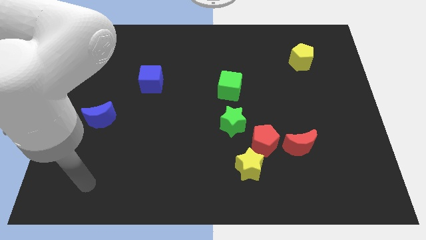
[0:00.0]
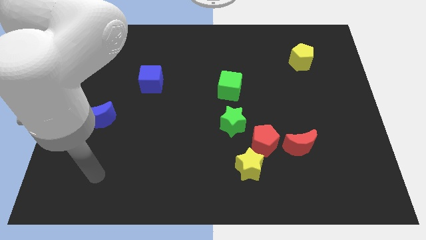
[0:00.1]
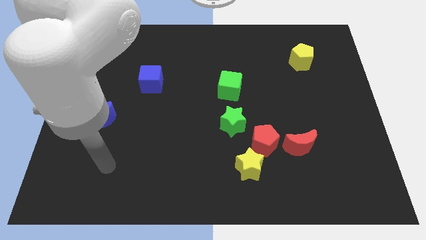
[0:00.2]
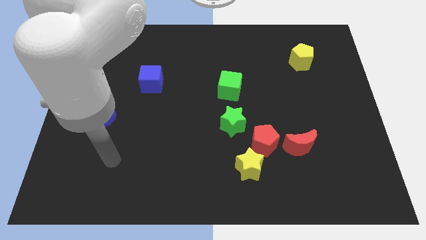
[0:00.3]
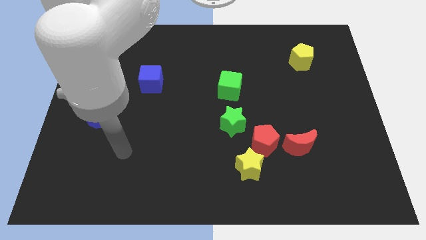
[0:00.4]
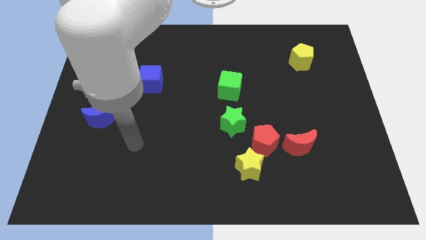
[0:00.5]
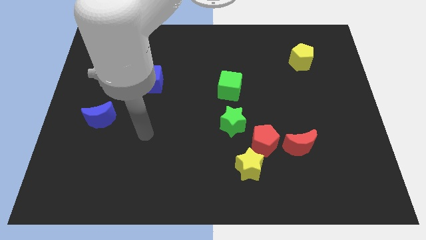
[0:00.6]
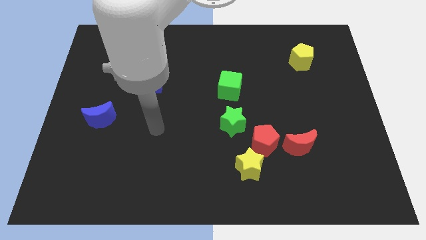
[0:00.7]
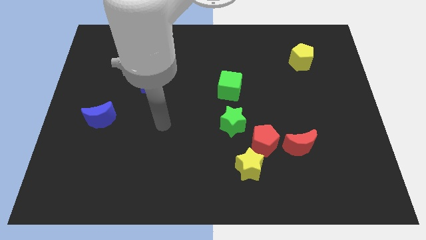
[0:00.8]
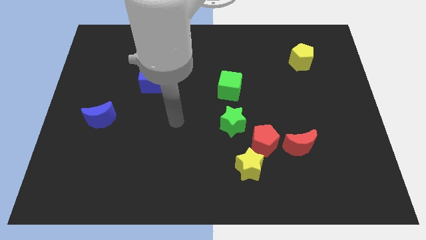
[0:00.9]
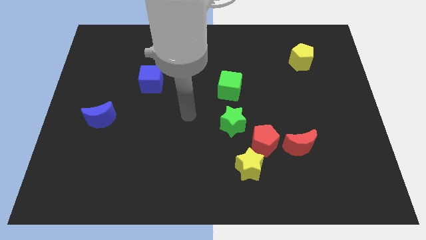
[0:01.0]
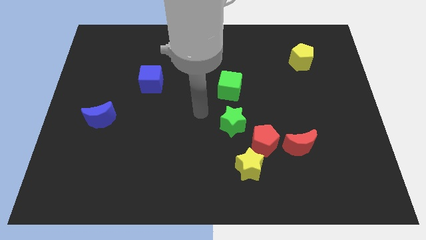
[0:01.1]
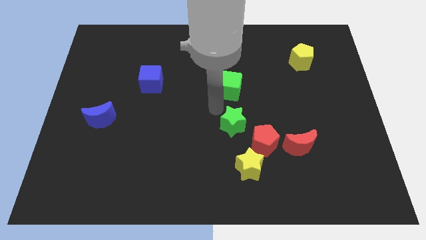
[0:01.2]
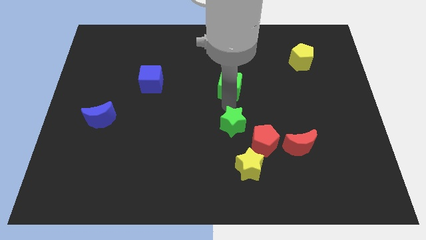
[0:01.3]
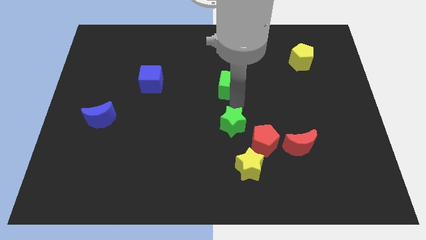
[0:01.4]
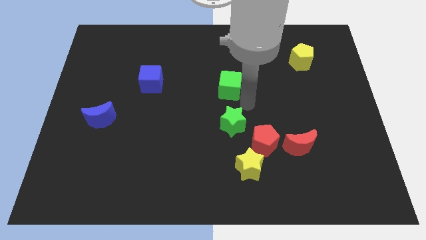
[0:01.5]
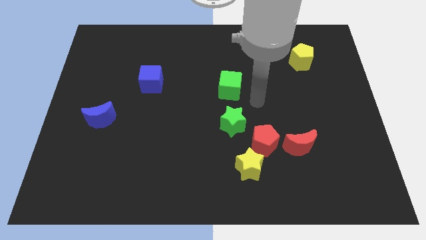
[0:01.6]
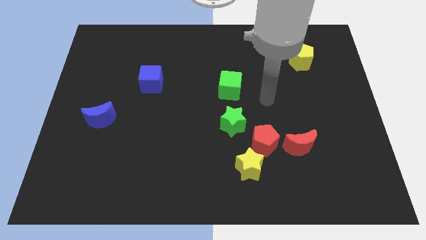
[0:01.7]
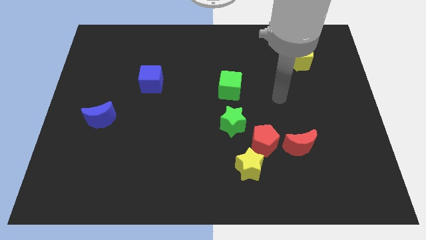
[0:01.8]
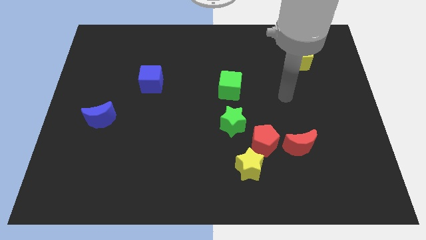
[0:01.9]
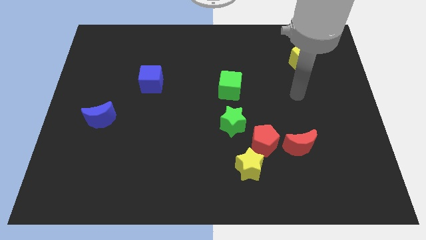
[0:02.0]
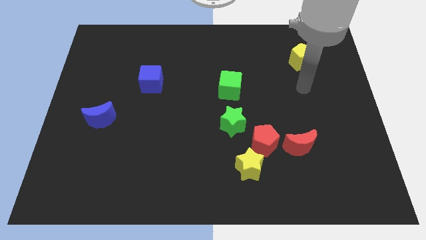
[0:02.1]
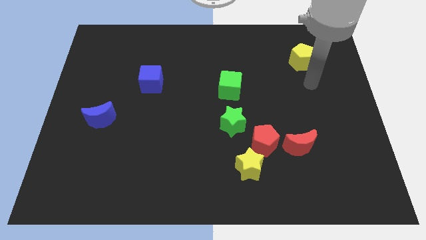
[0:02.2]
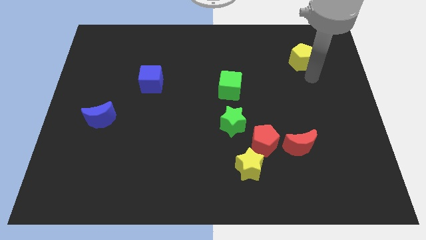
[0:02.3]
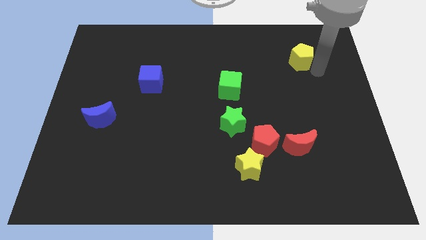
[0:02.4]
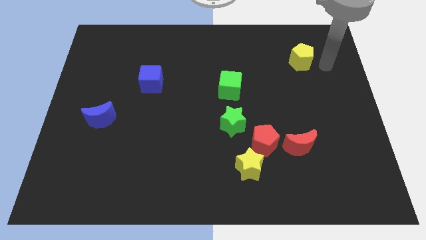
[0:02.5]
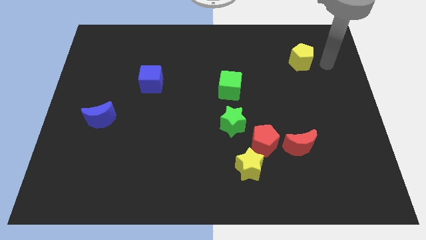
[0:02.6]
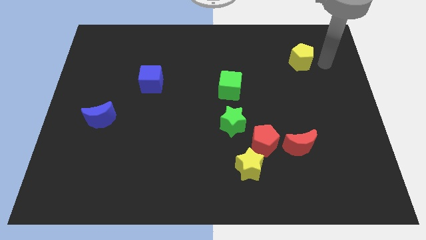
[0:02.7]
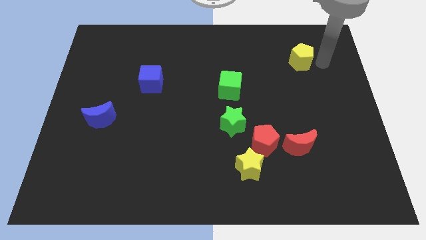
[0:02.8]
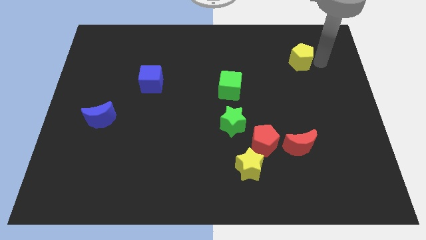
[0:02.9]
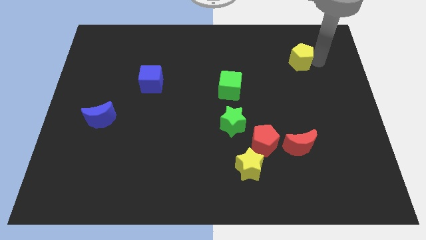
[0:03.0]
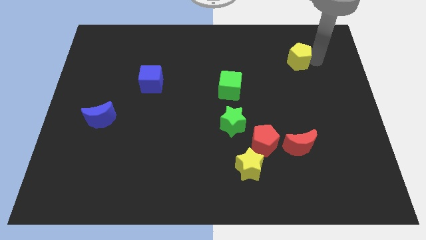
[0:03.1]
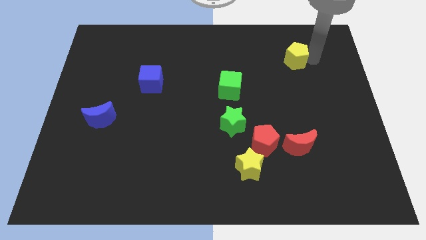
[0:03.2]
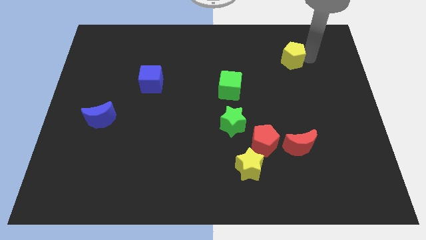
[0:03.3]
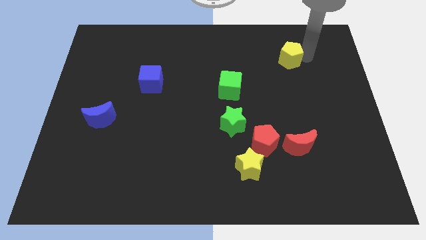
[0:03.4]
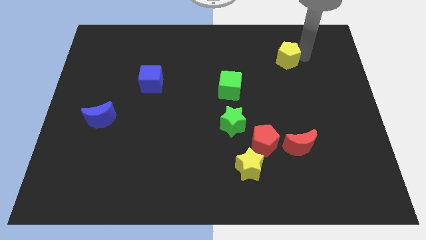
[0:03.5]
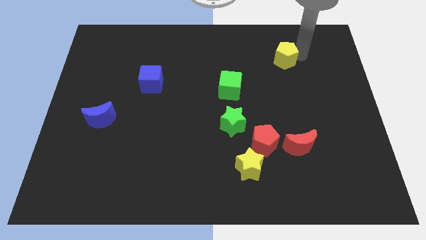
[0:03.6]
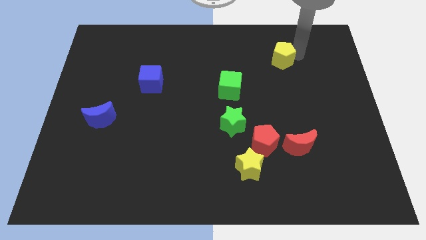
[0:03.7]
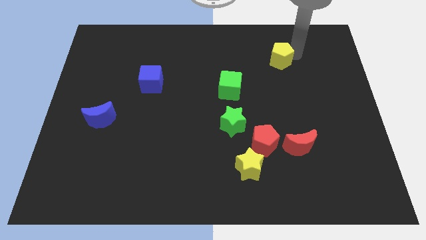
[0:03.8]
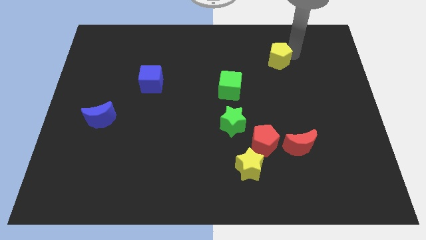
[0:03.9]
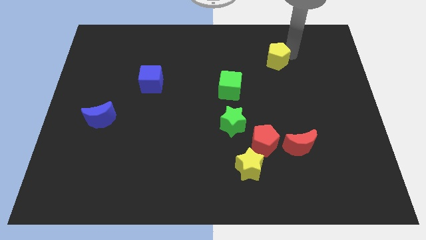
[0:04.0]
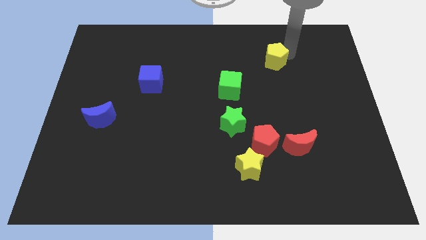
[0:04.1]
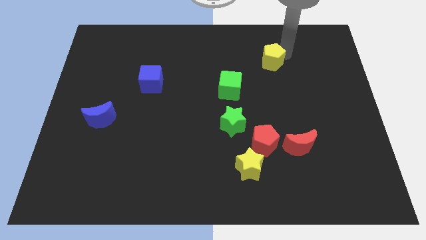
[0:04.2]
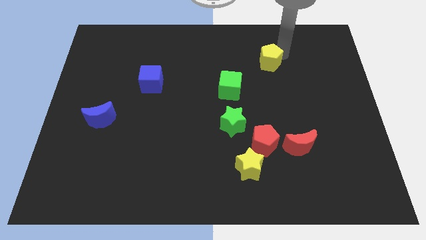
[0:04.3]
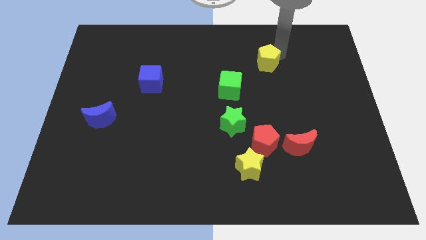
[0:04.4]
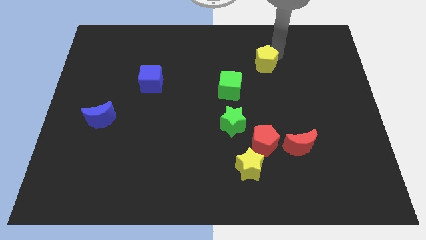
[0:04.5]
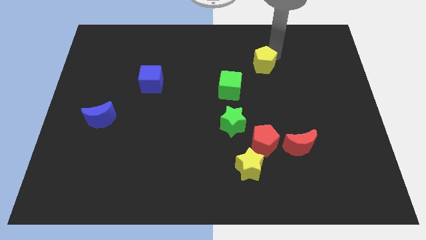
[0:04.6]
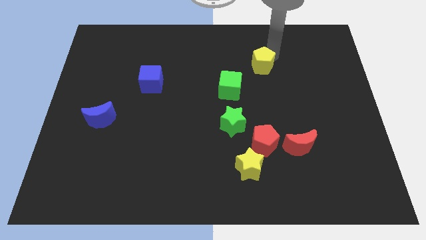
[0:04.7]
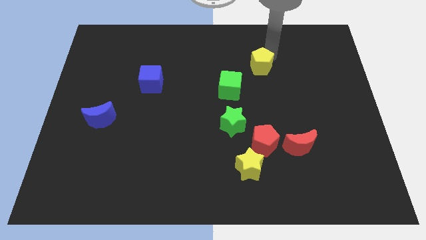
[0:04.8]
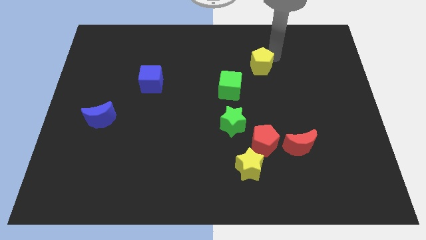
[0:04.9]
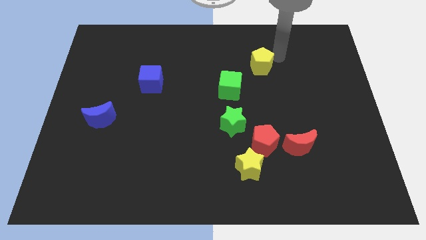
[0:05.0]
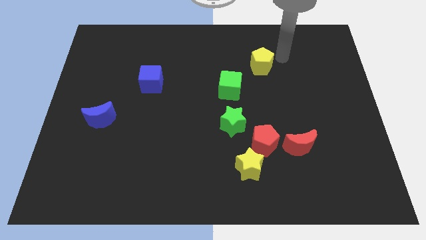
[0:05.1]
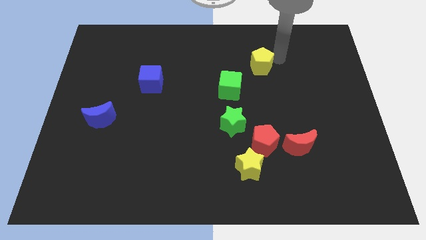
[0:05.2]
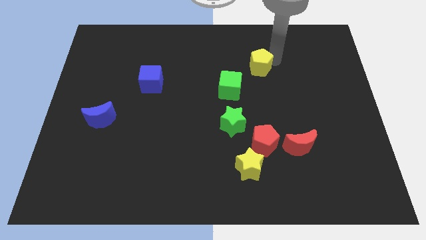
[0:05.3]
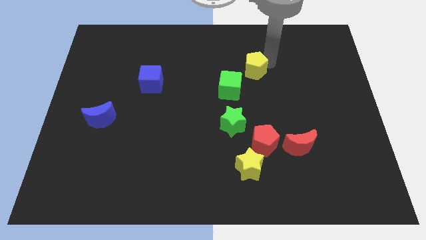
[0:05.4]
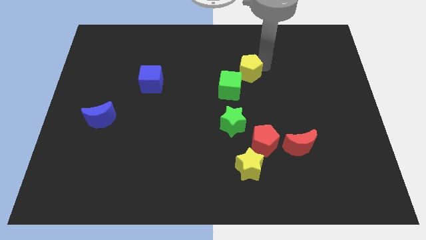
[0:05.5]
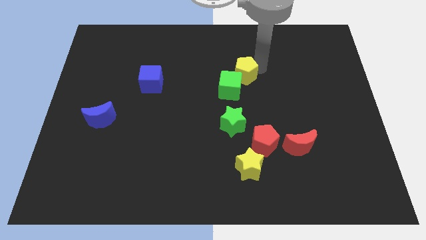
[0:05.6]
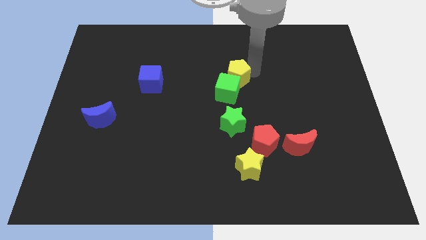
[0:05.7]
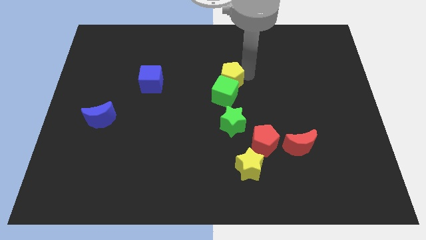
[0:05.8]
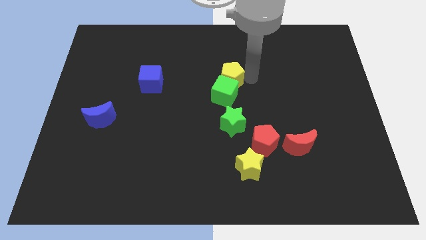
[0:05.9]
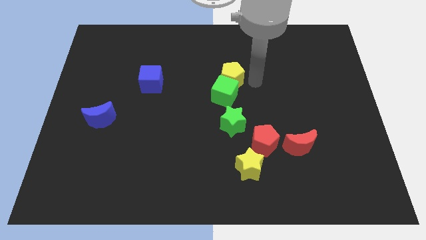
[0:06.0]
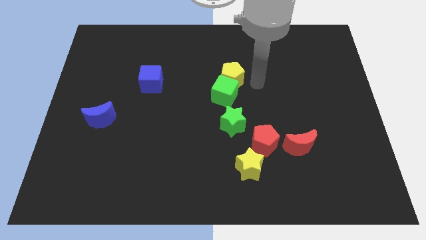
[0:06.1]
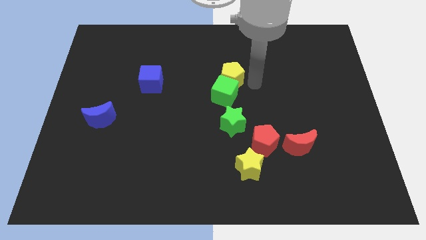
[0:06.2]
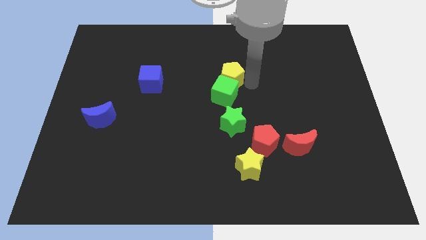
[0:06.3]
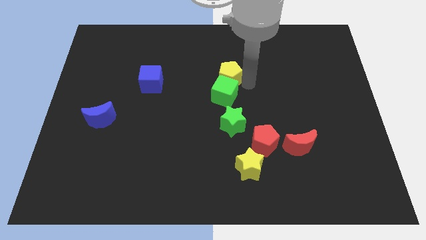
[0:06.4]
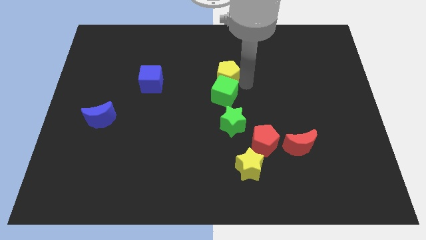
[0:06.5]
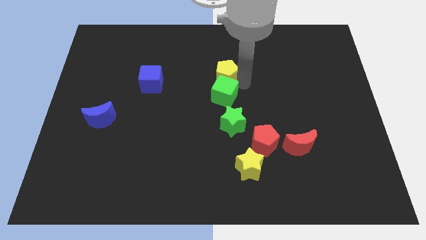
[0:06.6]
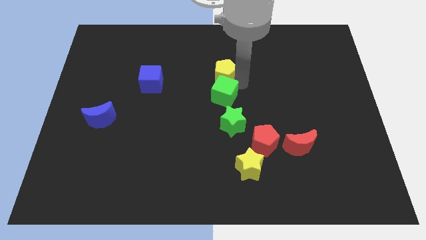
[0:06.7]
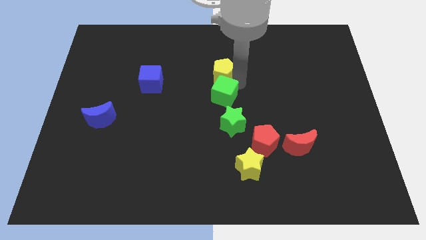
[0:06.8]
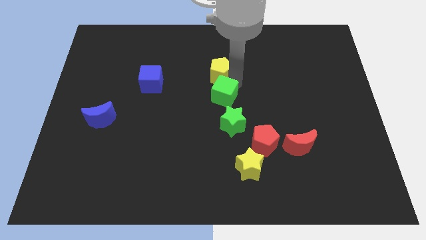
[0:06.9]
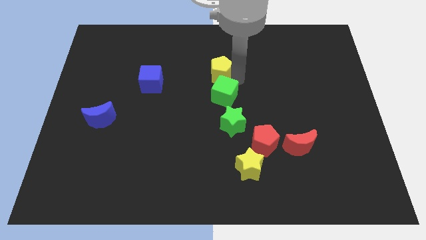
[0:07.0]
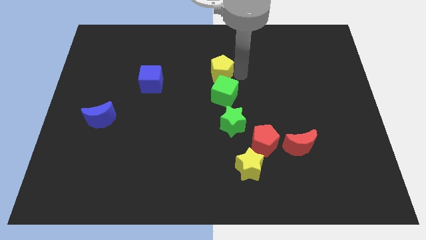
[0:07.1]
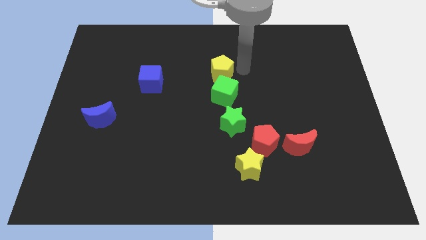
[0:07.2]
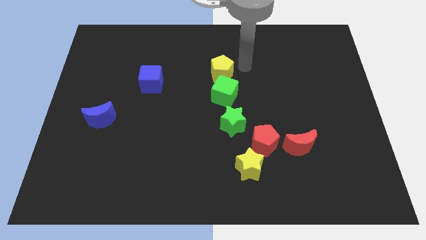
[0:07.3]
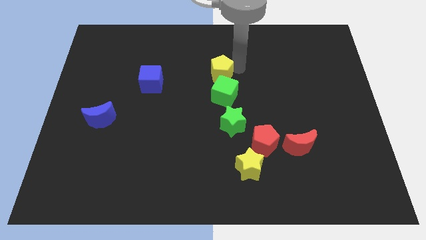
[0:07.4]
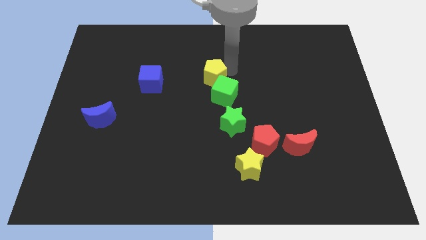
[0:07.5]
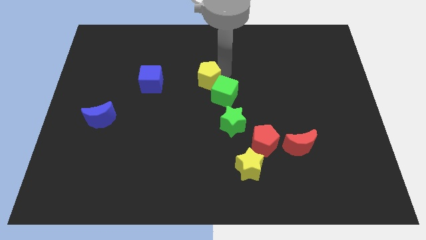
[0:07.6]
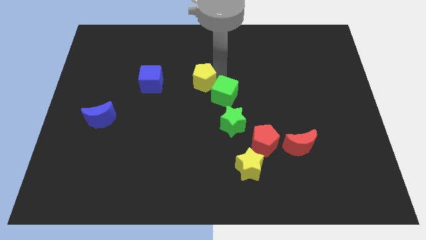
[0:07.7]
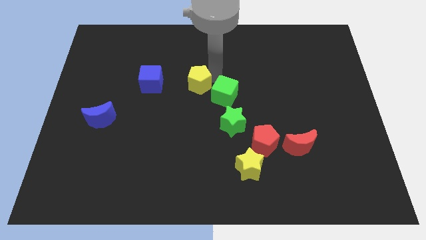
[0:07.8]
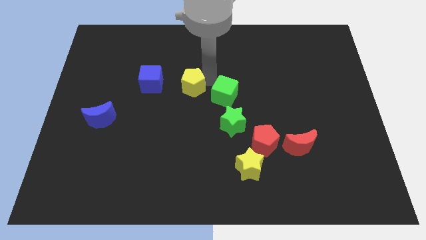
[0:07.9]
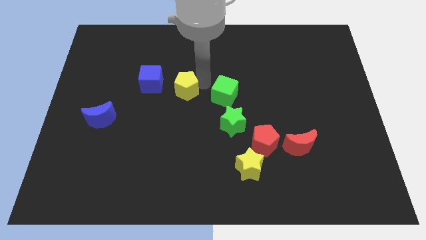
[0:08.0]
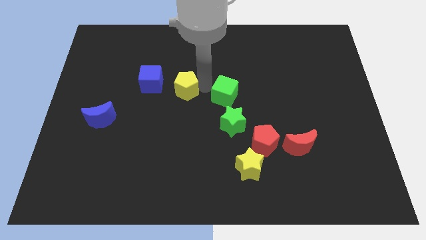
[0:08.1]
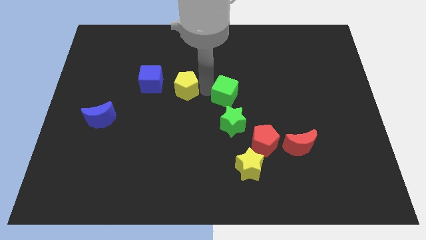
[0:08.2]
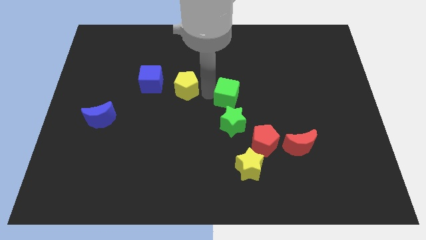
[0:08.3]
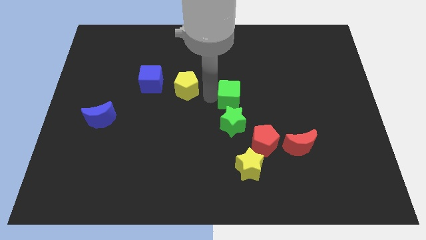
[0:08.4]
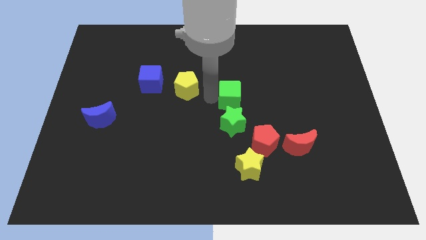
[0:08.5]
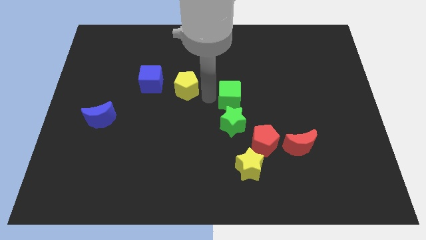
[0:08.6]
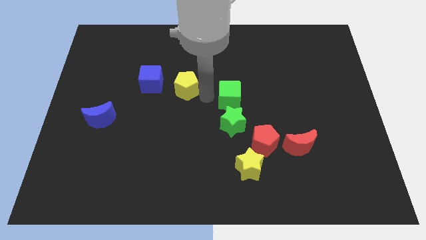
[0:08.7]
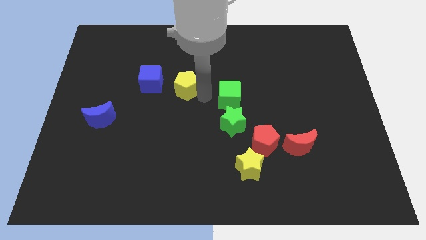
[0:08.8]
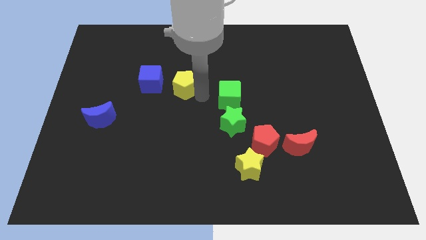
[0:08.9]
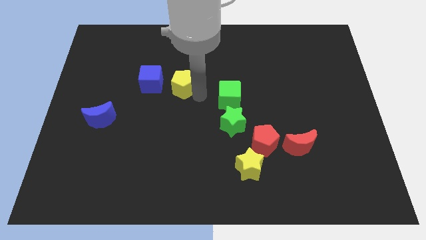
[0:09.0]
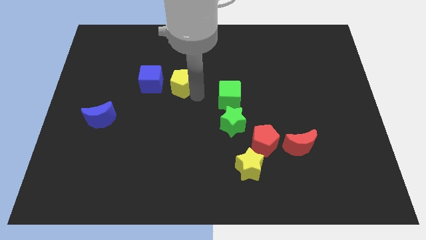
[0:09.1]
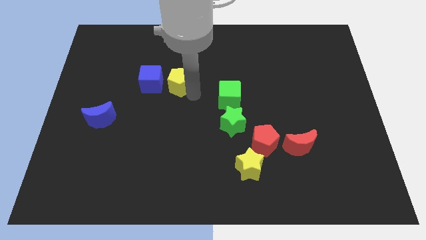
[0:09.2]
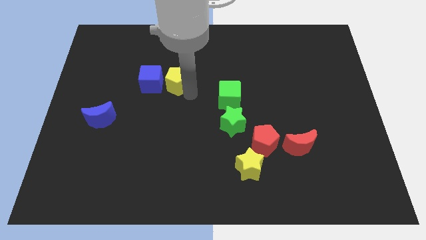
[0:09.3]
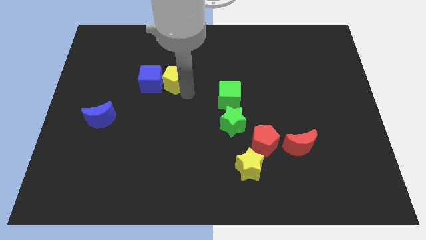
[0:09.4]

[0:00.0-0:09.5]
move the yellow pentagon to the blue cube
